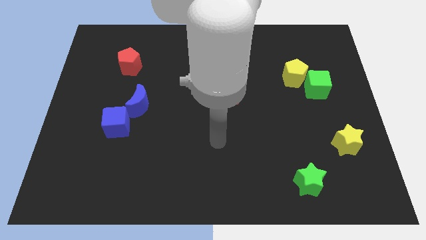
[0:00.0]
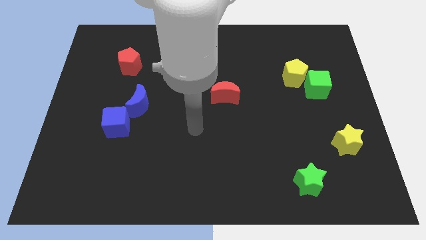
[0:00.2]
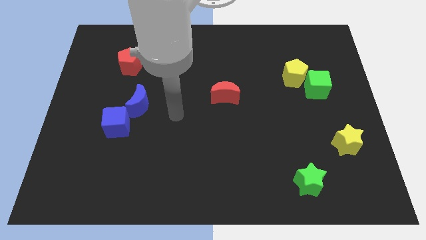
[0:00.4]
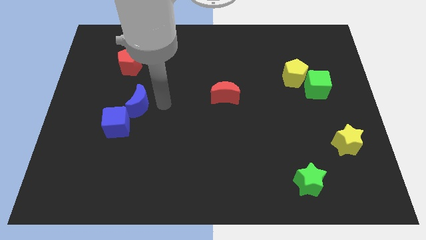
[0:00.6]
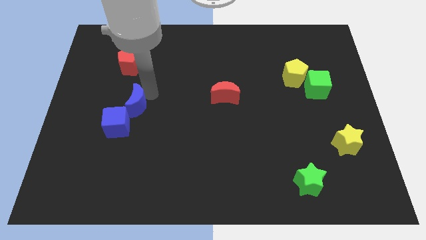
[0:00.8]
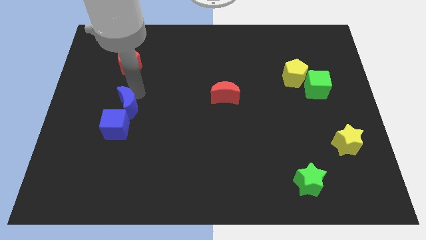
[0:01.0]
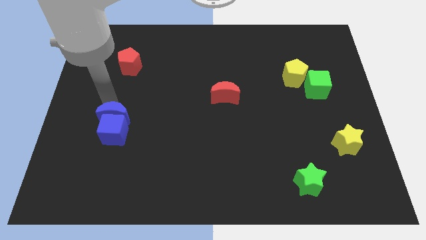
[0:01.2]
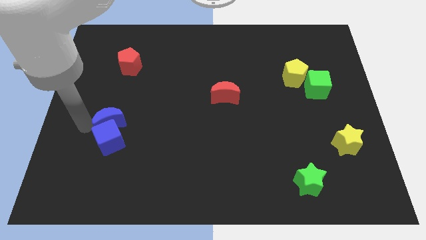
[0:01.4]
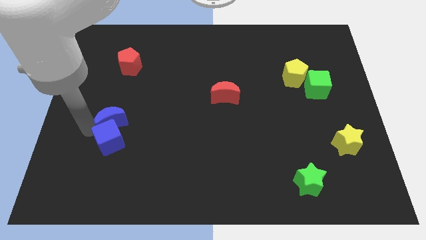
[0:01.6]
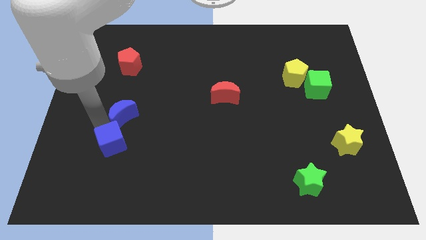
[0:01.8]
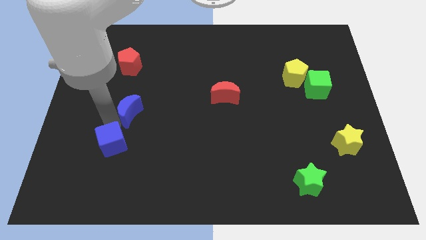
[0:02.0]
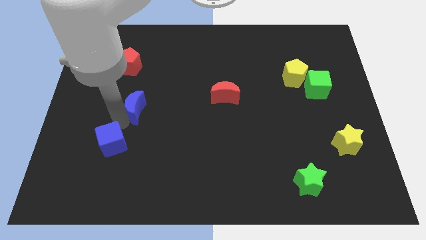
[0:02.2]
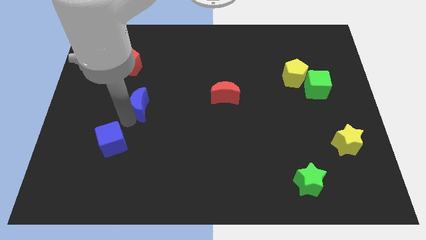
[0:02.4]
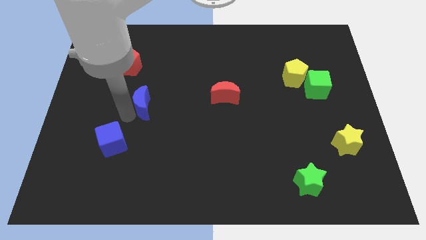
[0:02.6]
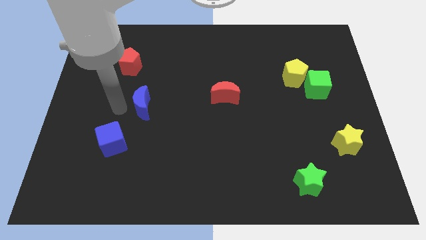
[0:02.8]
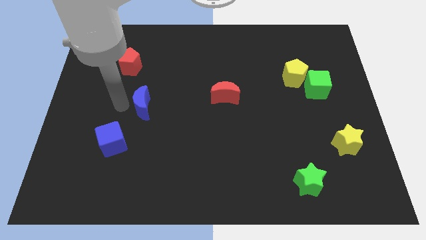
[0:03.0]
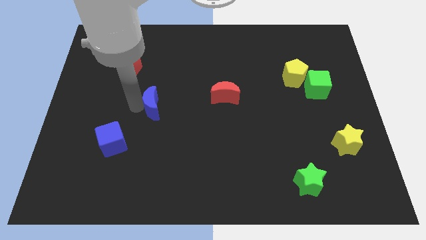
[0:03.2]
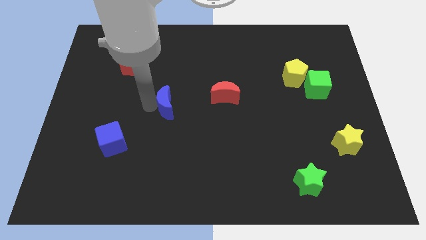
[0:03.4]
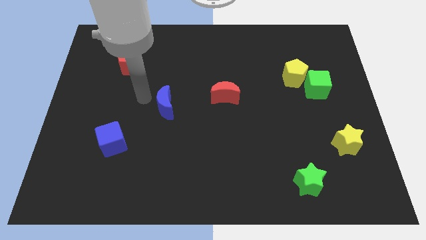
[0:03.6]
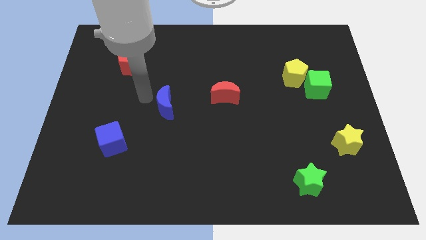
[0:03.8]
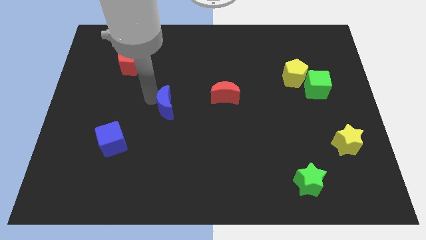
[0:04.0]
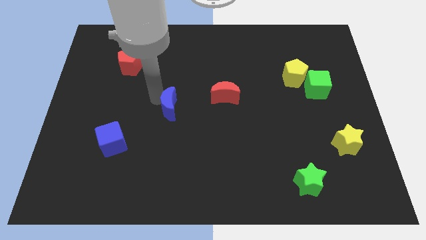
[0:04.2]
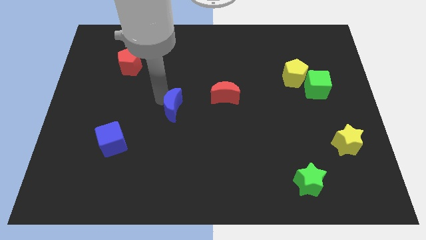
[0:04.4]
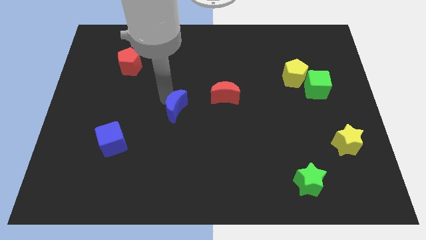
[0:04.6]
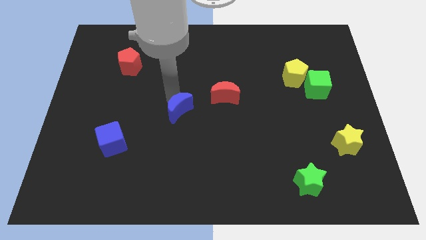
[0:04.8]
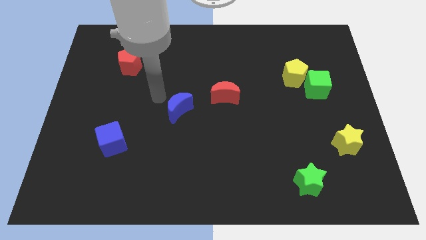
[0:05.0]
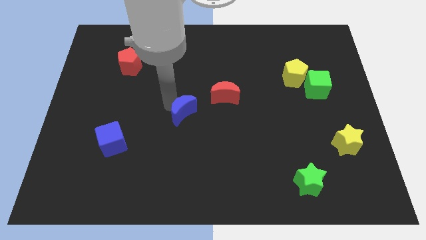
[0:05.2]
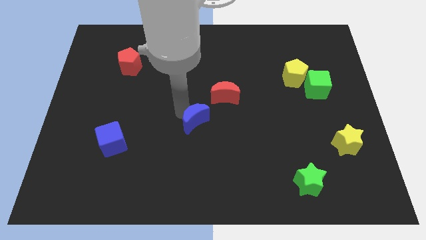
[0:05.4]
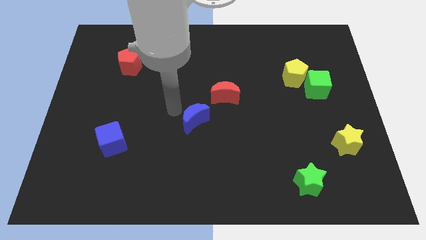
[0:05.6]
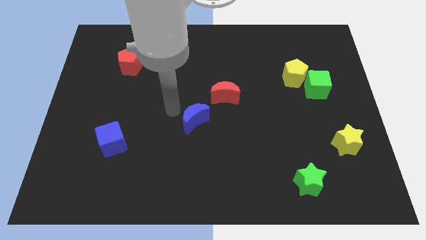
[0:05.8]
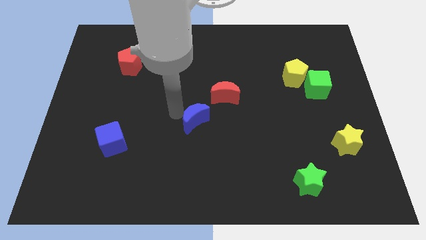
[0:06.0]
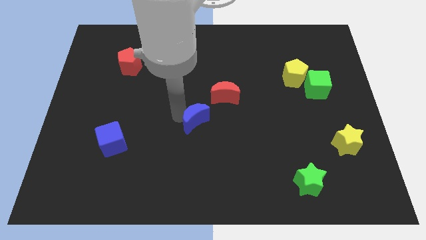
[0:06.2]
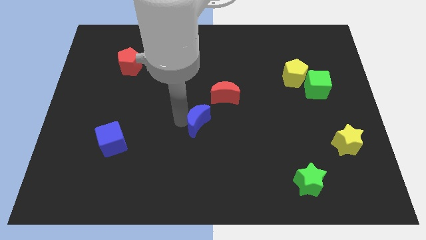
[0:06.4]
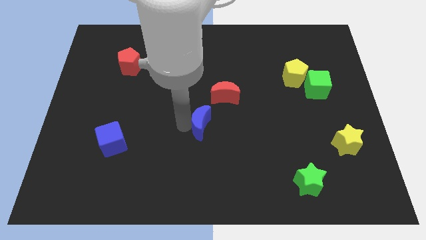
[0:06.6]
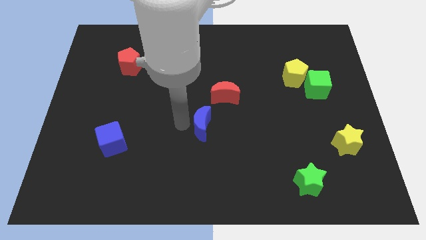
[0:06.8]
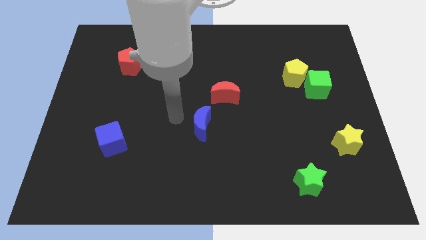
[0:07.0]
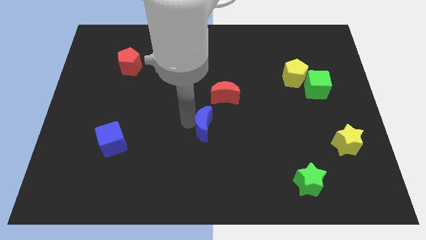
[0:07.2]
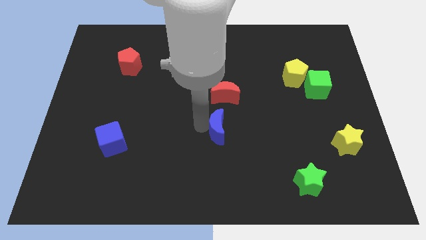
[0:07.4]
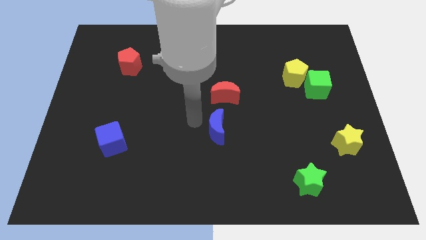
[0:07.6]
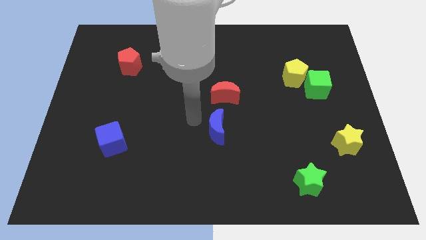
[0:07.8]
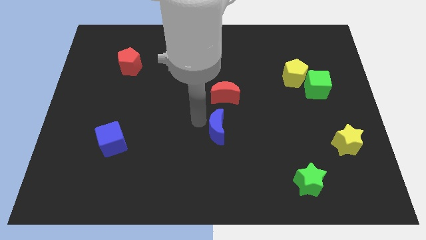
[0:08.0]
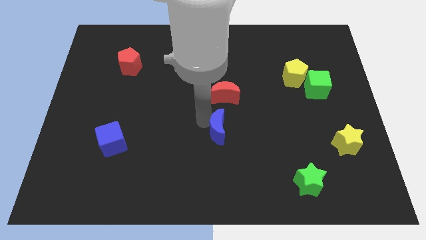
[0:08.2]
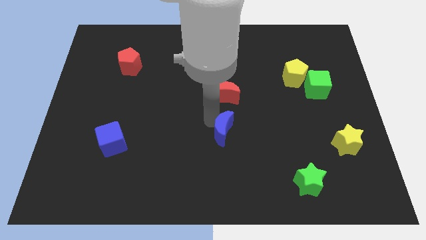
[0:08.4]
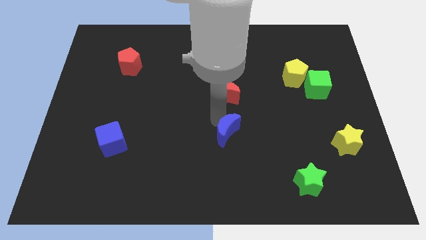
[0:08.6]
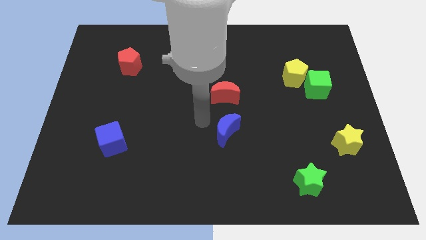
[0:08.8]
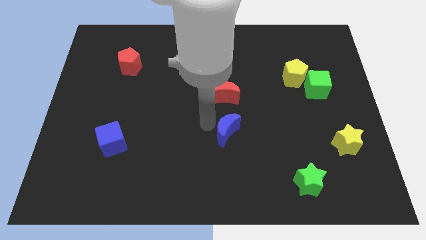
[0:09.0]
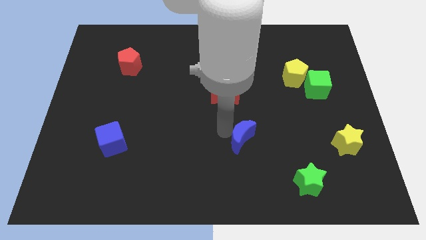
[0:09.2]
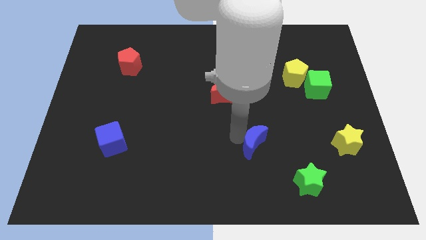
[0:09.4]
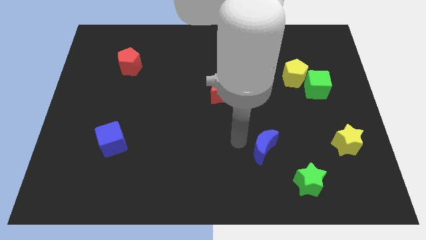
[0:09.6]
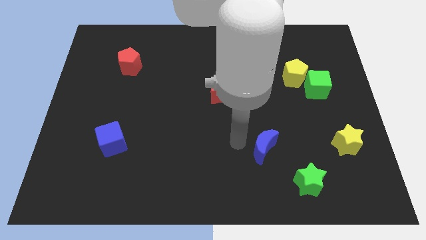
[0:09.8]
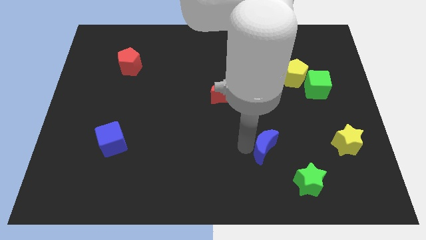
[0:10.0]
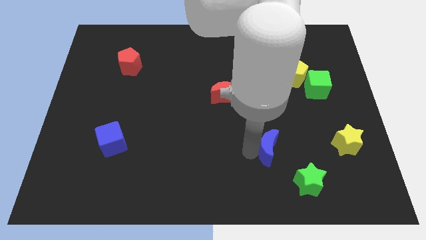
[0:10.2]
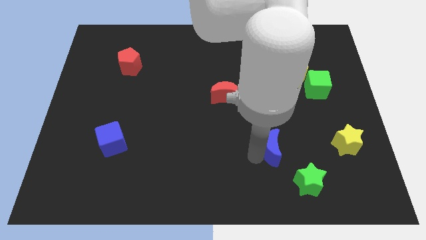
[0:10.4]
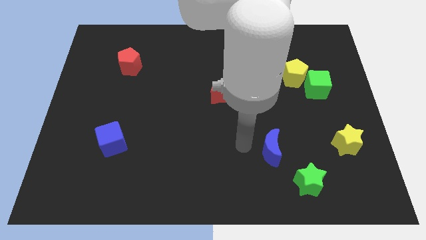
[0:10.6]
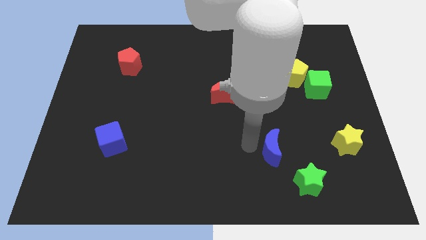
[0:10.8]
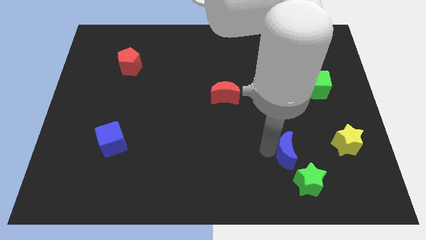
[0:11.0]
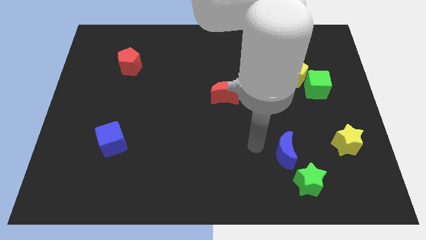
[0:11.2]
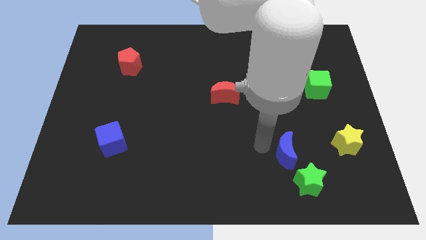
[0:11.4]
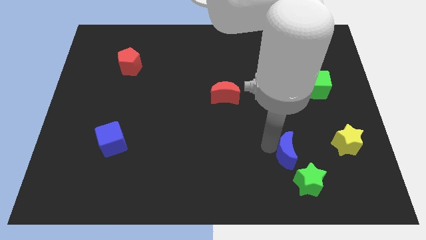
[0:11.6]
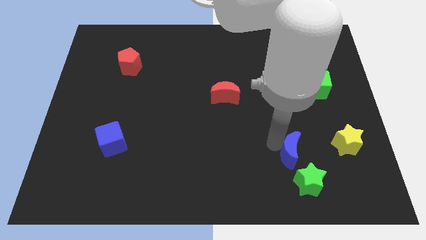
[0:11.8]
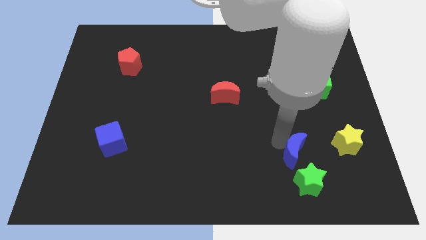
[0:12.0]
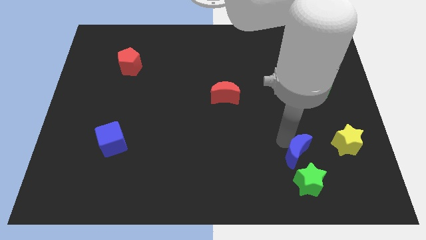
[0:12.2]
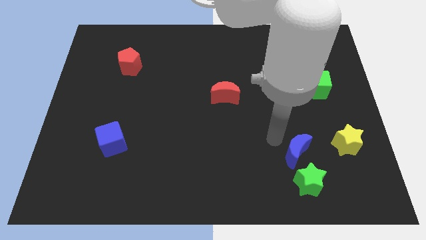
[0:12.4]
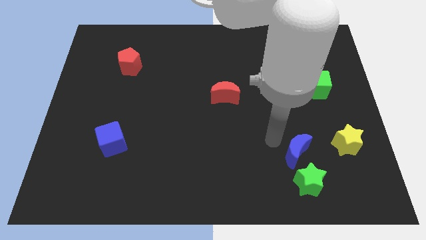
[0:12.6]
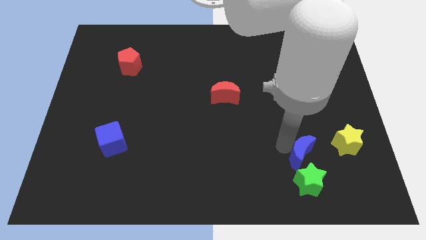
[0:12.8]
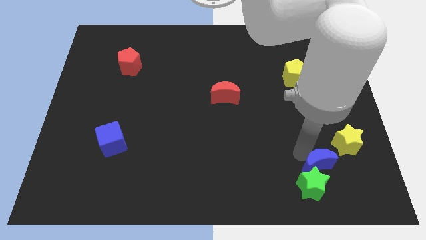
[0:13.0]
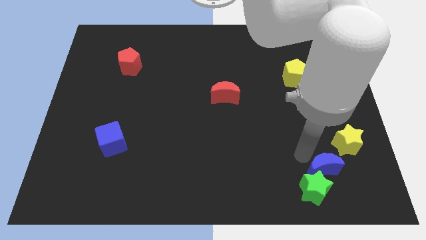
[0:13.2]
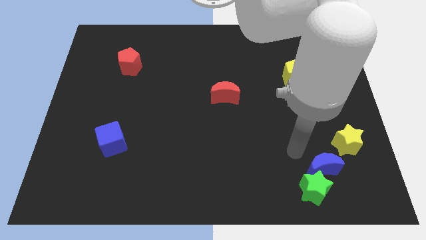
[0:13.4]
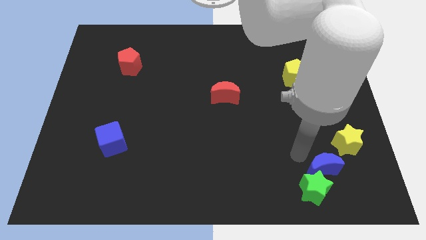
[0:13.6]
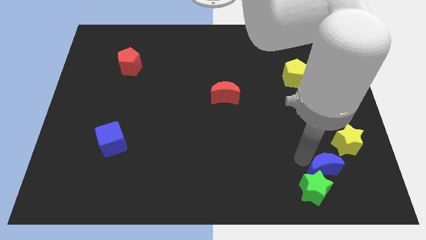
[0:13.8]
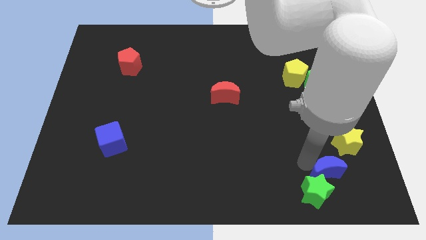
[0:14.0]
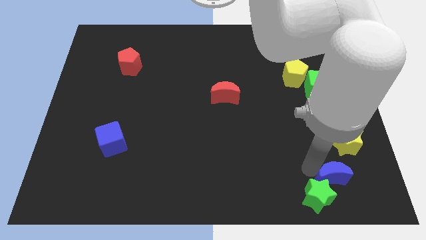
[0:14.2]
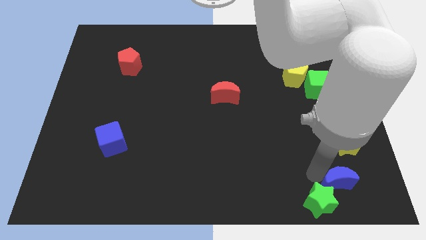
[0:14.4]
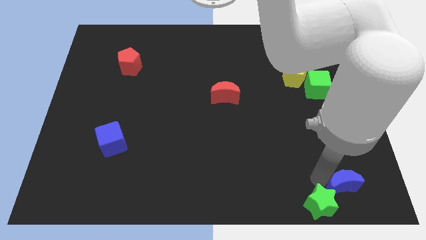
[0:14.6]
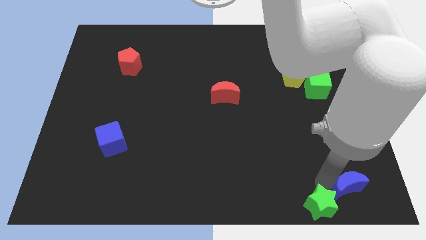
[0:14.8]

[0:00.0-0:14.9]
put the blue moon to the bottom right of the board

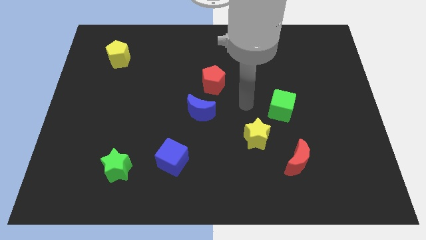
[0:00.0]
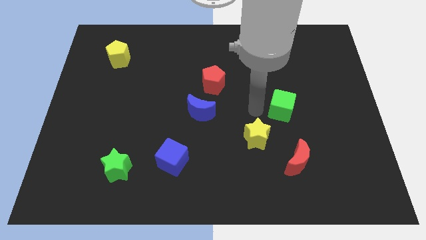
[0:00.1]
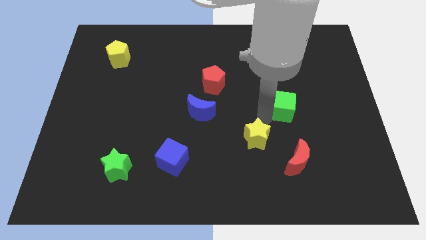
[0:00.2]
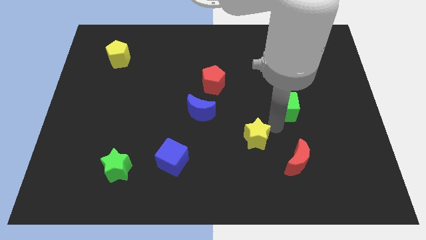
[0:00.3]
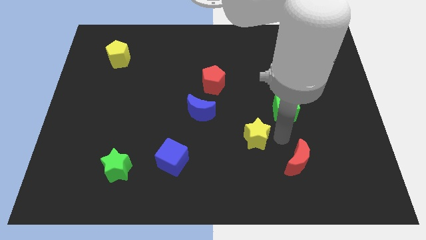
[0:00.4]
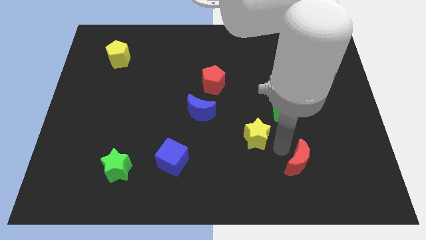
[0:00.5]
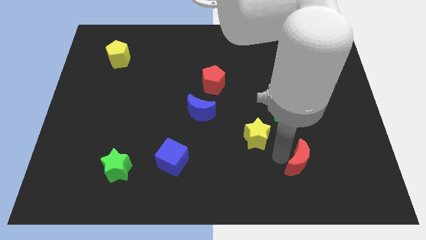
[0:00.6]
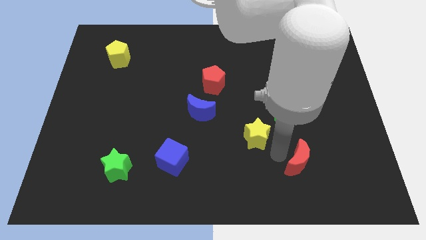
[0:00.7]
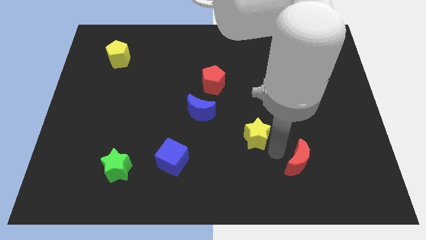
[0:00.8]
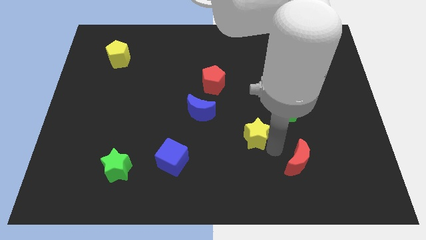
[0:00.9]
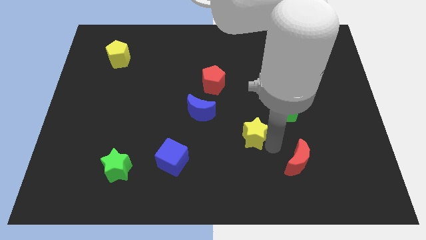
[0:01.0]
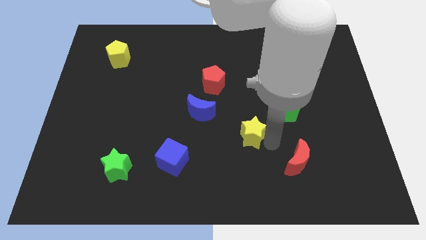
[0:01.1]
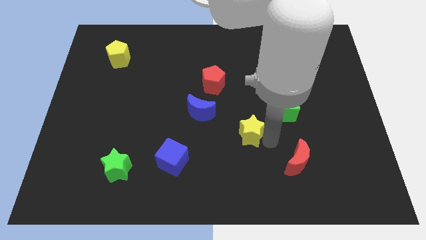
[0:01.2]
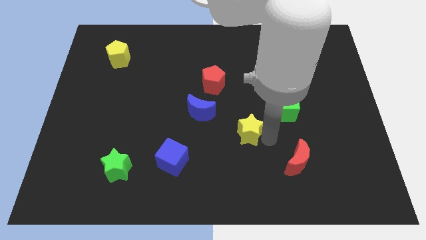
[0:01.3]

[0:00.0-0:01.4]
push the yellow star to the center
